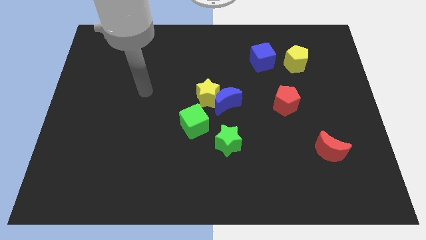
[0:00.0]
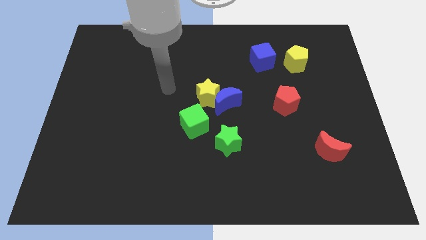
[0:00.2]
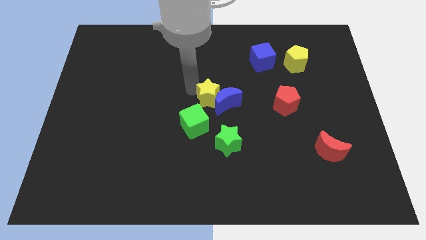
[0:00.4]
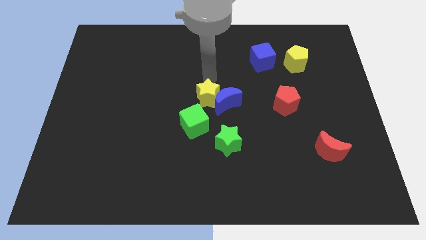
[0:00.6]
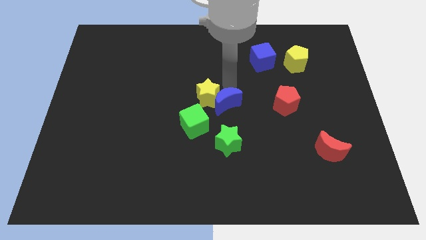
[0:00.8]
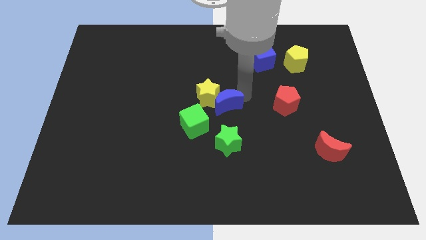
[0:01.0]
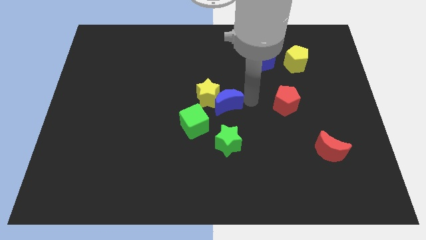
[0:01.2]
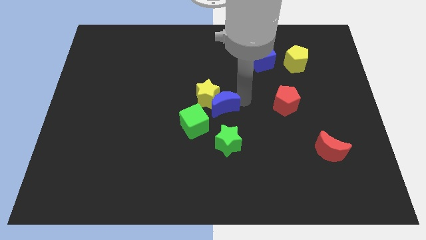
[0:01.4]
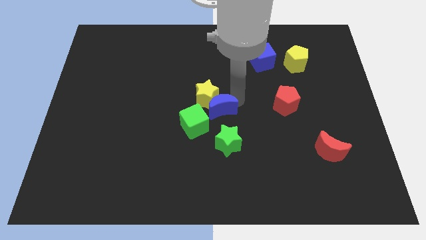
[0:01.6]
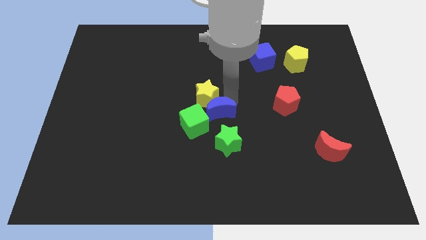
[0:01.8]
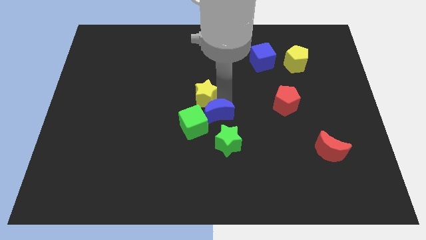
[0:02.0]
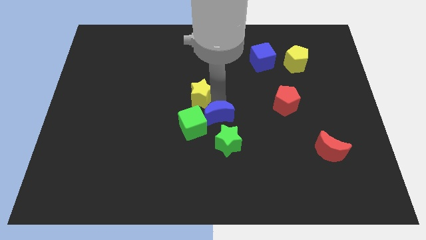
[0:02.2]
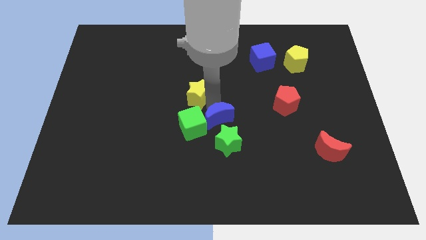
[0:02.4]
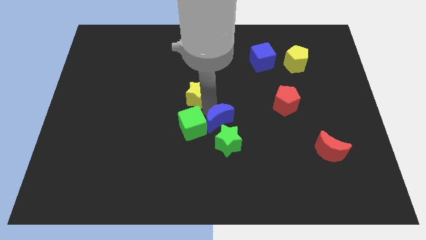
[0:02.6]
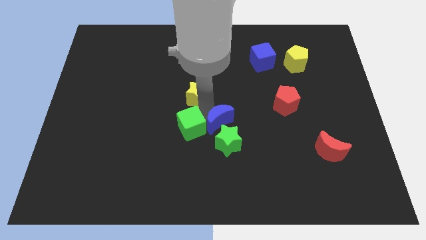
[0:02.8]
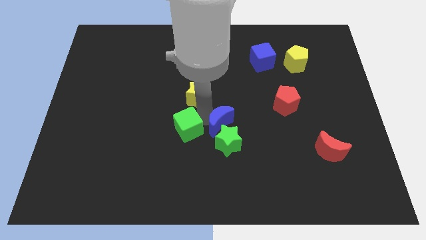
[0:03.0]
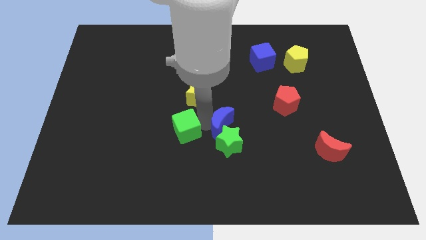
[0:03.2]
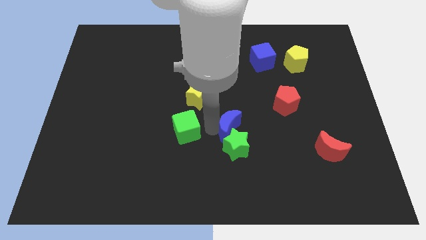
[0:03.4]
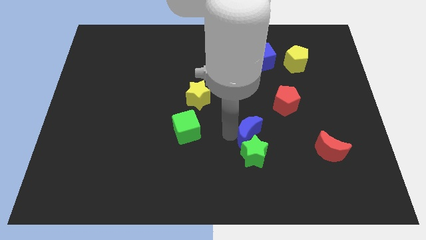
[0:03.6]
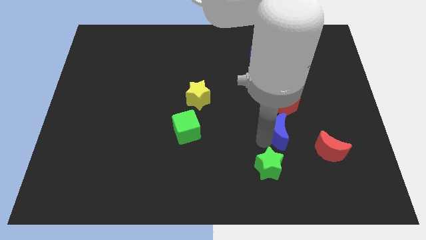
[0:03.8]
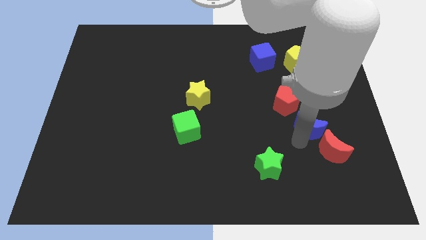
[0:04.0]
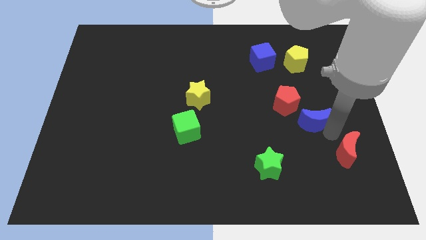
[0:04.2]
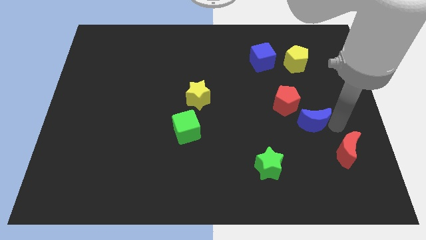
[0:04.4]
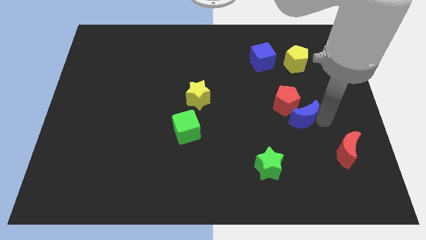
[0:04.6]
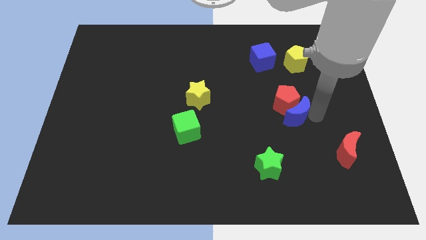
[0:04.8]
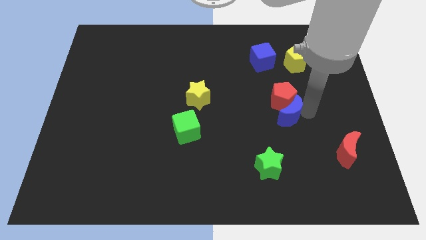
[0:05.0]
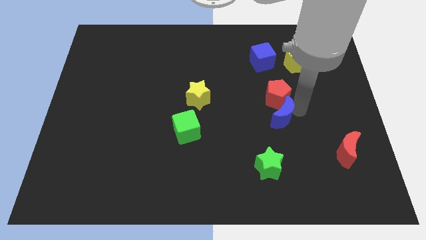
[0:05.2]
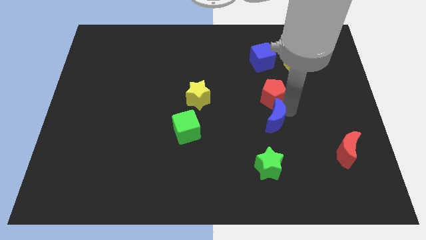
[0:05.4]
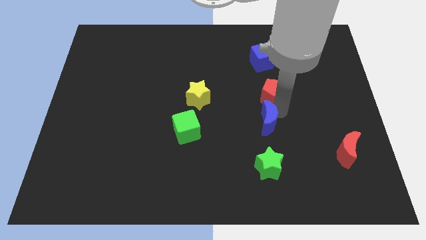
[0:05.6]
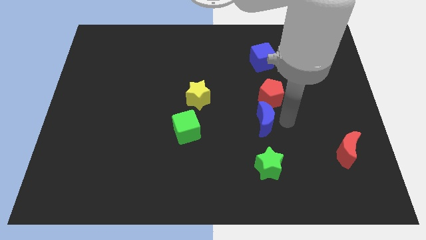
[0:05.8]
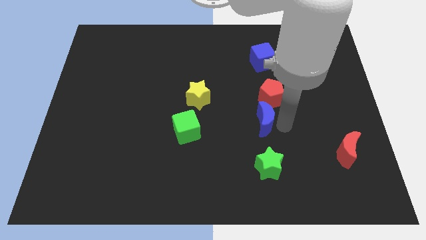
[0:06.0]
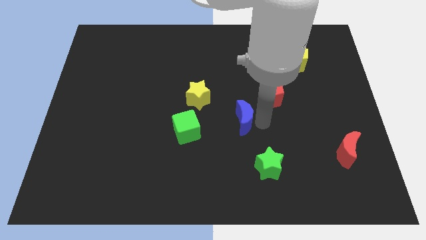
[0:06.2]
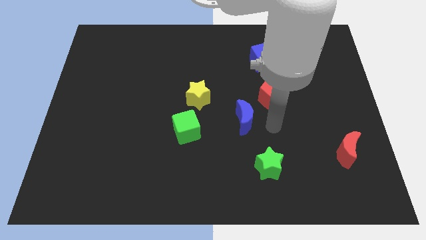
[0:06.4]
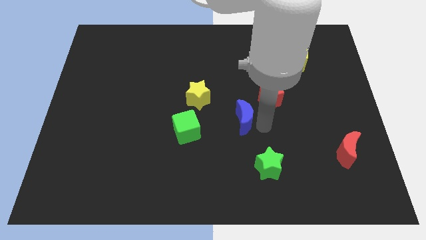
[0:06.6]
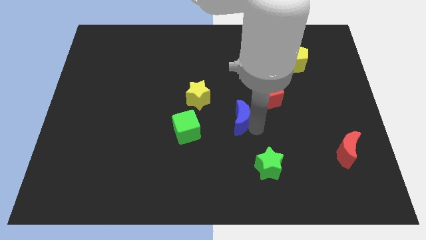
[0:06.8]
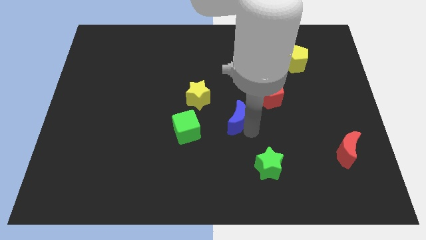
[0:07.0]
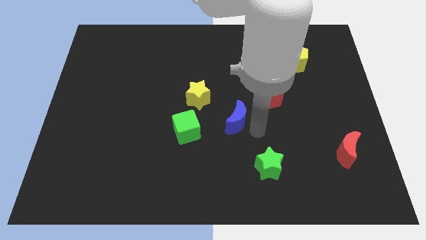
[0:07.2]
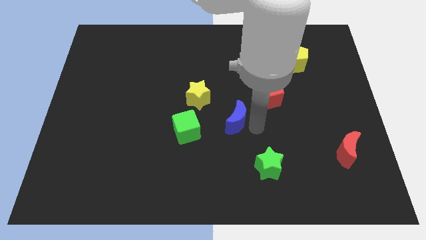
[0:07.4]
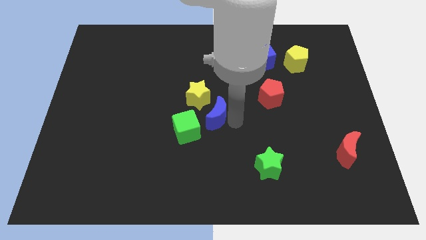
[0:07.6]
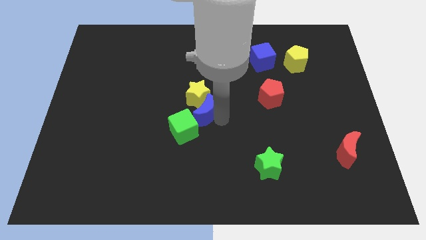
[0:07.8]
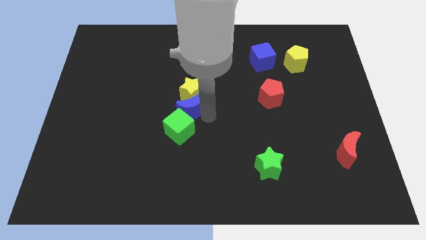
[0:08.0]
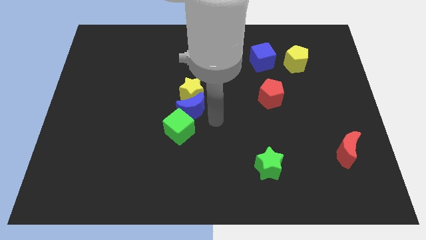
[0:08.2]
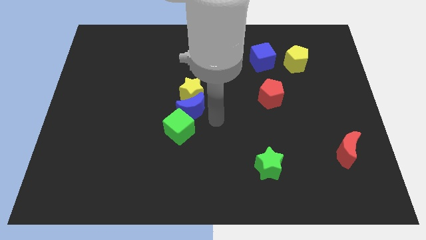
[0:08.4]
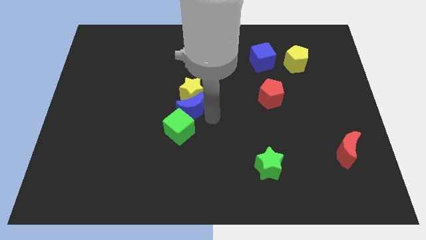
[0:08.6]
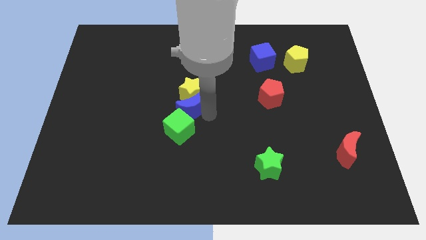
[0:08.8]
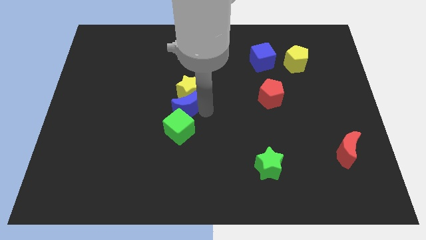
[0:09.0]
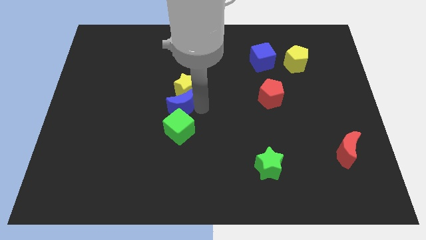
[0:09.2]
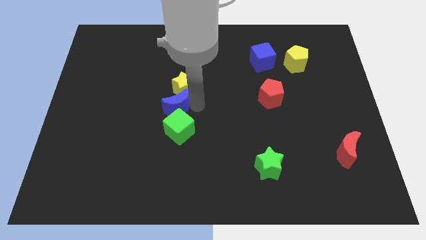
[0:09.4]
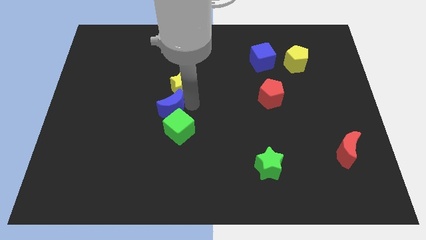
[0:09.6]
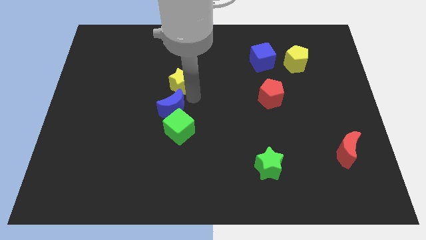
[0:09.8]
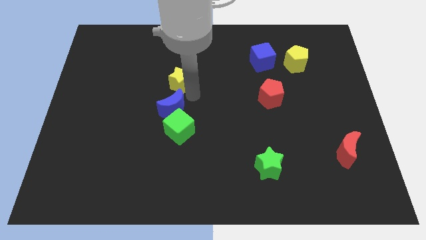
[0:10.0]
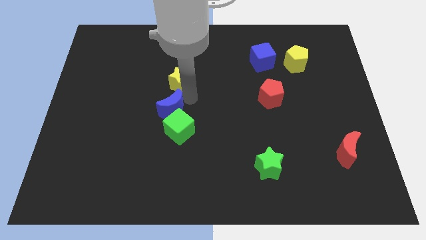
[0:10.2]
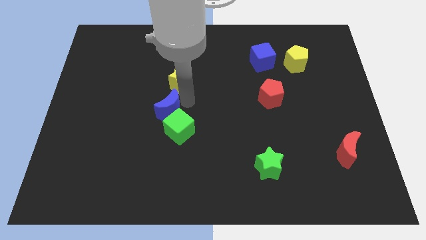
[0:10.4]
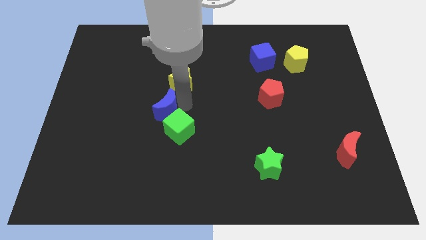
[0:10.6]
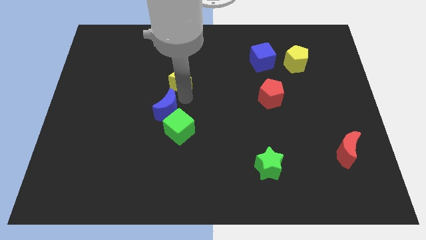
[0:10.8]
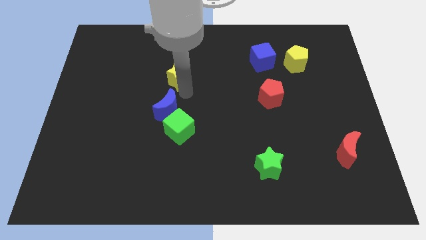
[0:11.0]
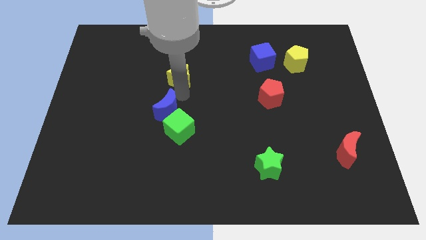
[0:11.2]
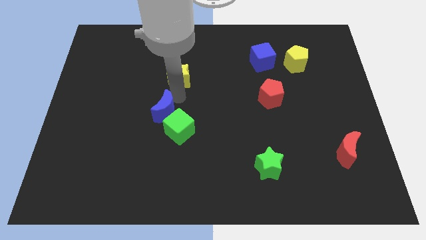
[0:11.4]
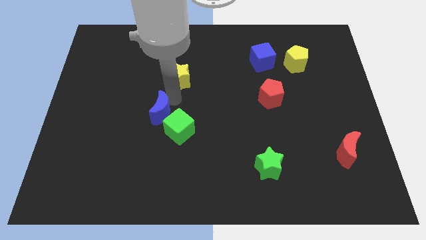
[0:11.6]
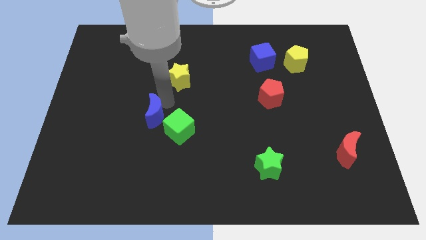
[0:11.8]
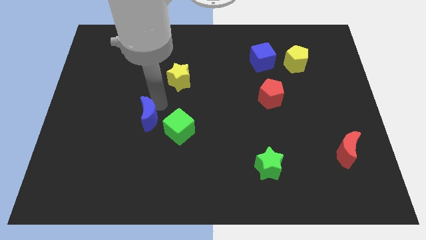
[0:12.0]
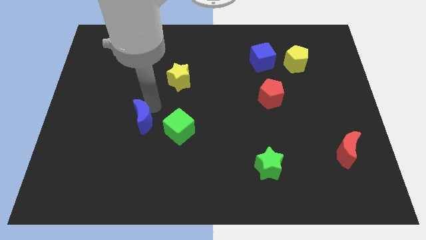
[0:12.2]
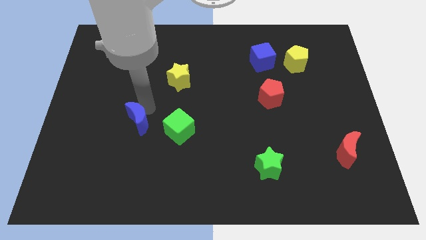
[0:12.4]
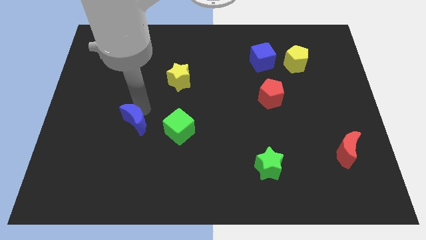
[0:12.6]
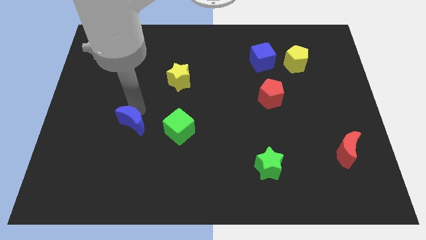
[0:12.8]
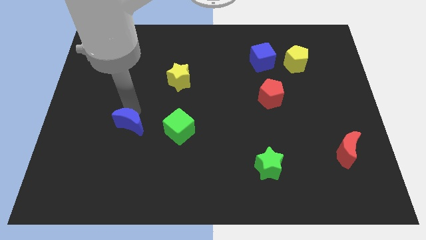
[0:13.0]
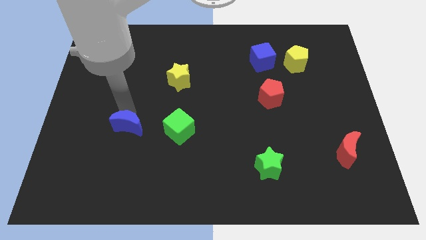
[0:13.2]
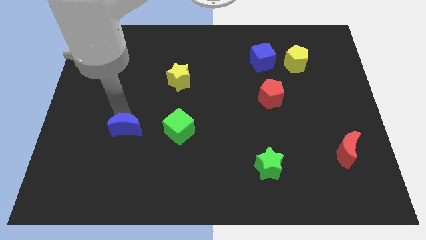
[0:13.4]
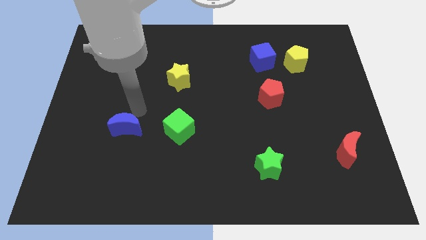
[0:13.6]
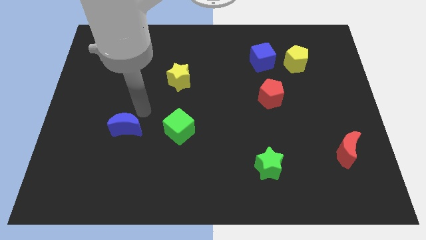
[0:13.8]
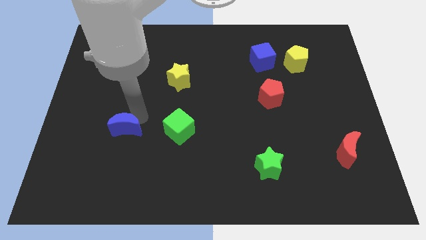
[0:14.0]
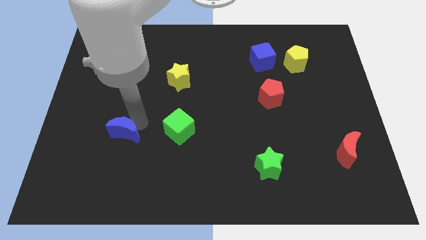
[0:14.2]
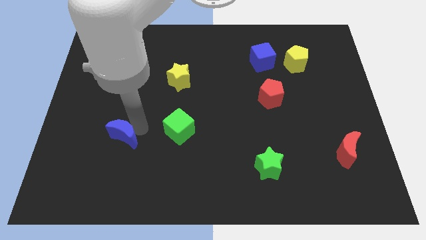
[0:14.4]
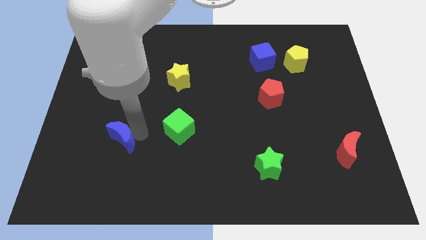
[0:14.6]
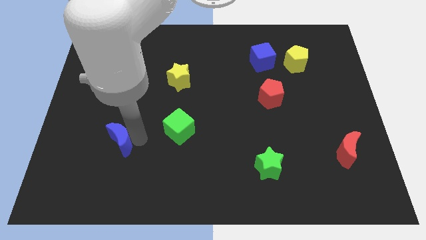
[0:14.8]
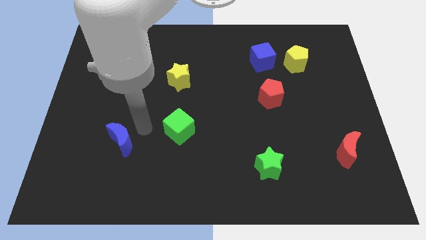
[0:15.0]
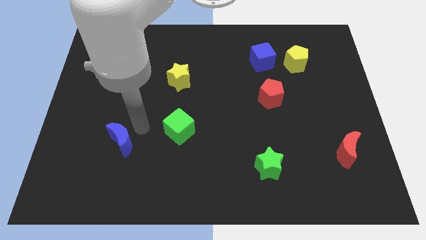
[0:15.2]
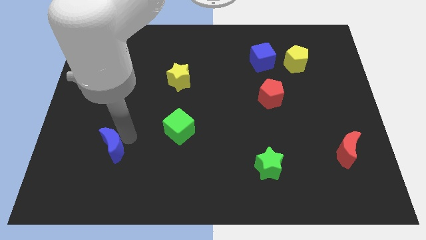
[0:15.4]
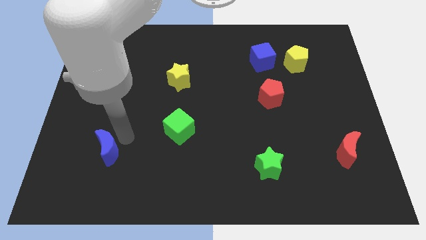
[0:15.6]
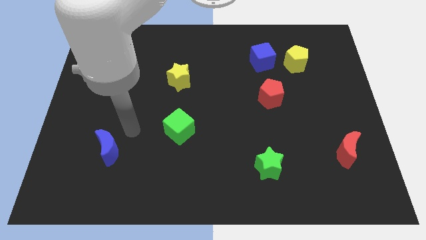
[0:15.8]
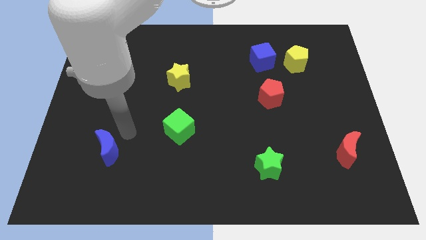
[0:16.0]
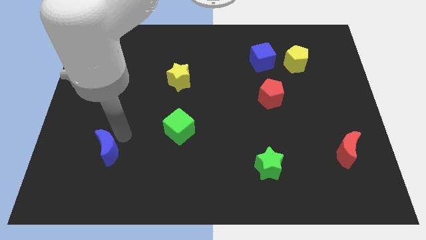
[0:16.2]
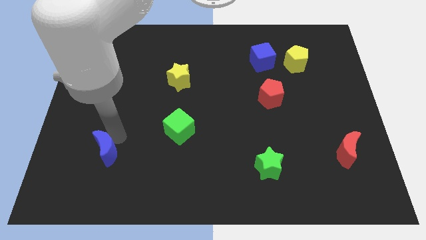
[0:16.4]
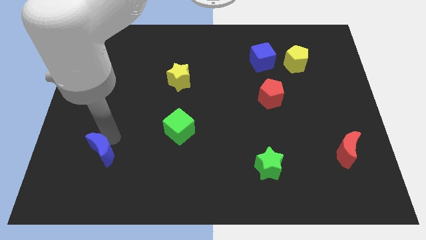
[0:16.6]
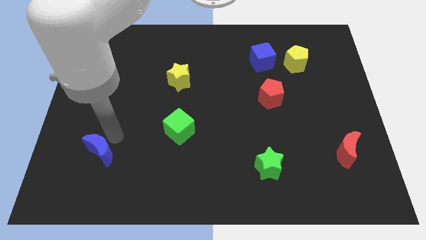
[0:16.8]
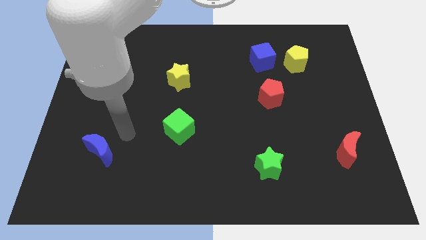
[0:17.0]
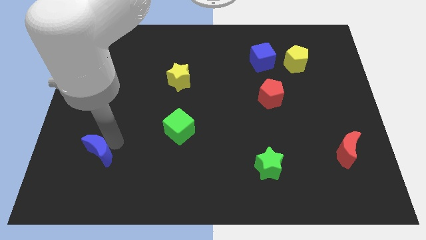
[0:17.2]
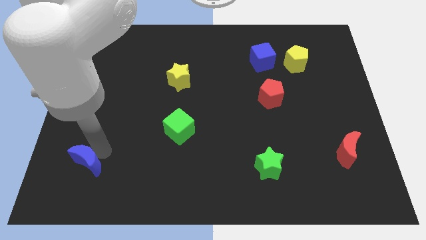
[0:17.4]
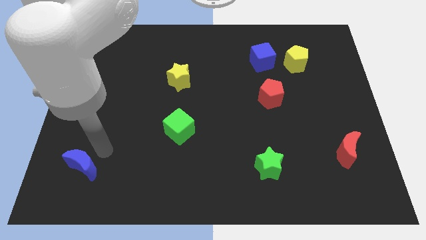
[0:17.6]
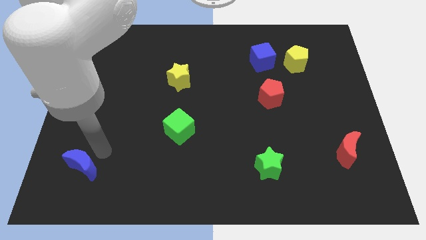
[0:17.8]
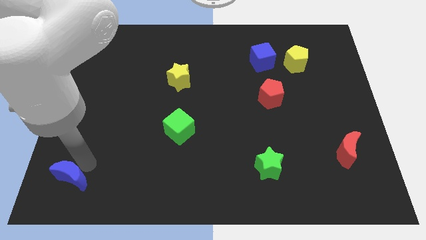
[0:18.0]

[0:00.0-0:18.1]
put the blue moon to the bottom left corner
